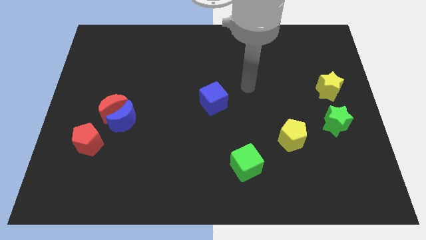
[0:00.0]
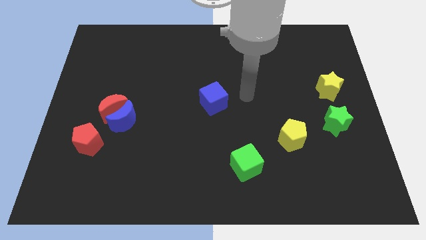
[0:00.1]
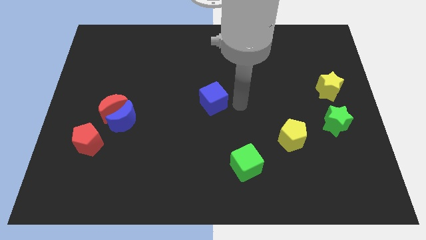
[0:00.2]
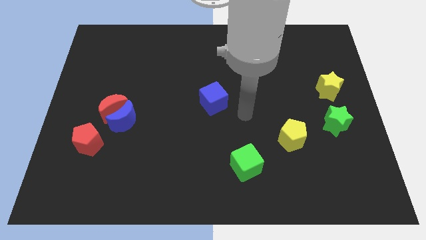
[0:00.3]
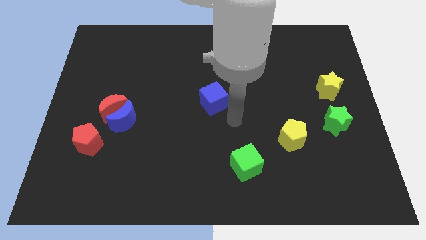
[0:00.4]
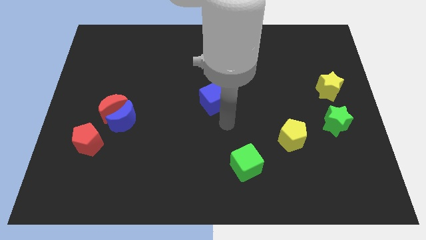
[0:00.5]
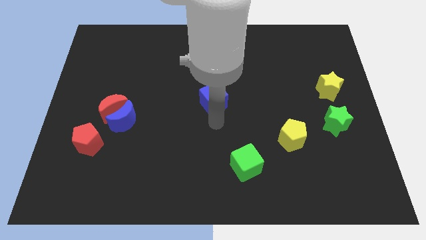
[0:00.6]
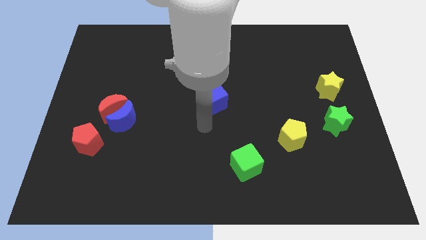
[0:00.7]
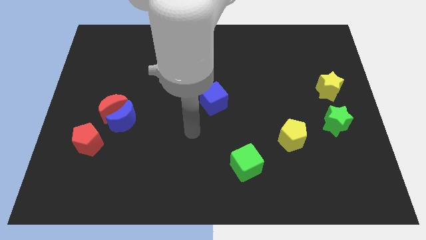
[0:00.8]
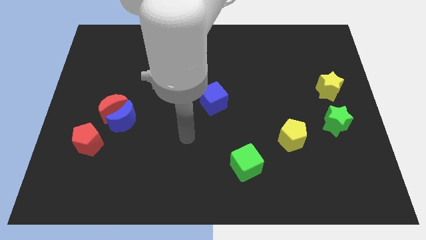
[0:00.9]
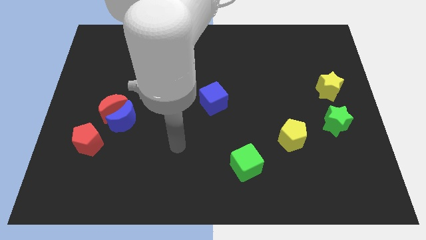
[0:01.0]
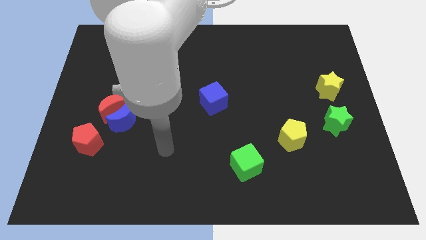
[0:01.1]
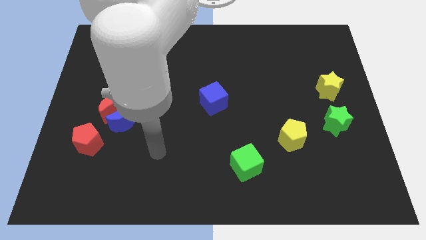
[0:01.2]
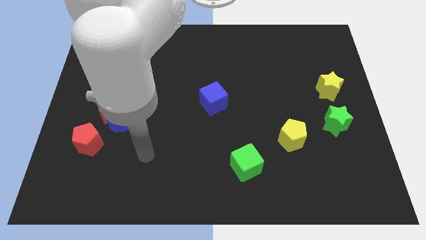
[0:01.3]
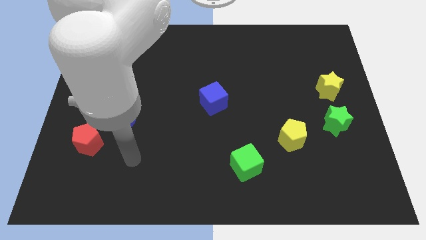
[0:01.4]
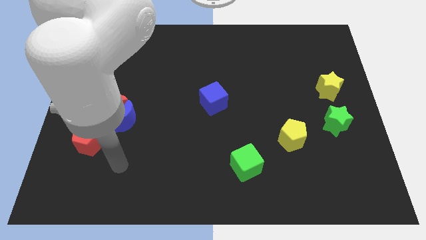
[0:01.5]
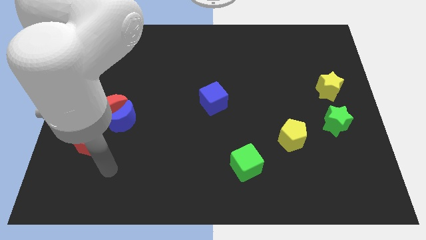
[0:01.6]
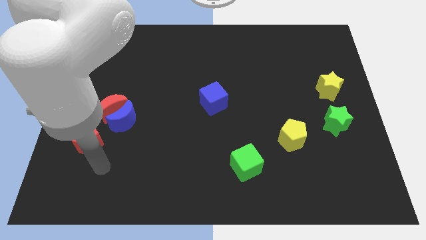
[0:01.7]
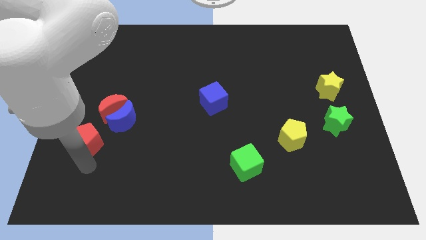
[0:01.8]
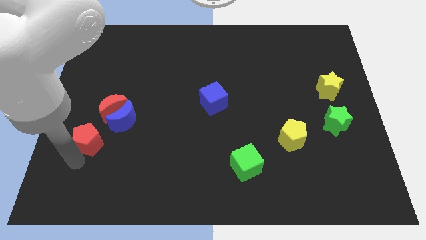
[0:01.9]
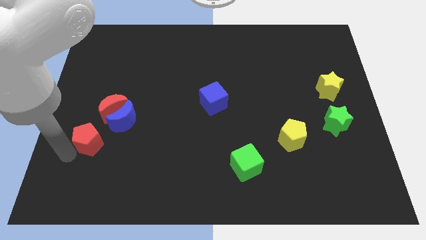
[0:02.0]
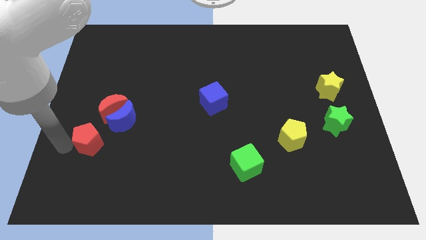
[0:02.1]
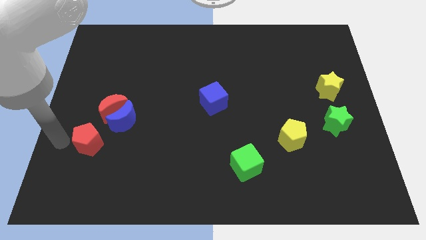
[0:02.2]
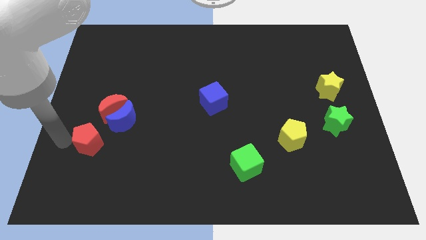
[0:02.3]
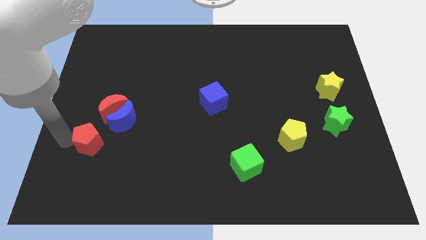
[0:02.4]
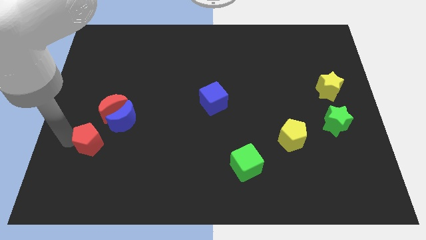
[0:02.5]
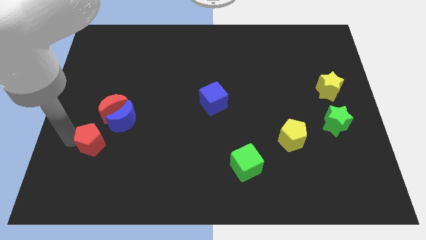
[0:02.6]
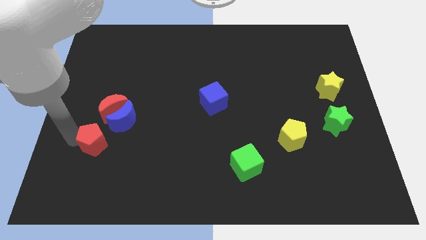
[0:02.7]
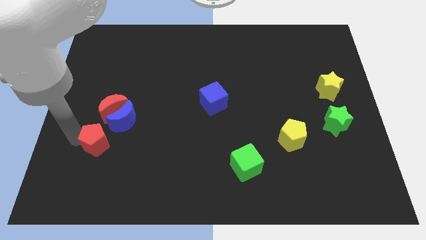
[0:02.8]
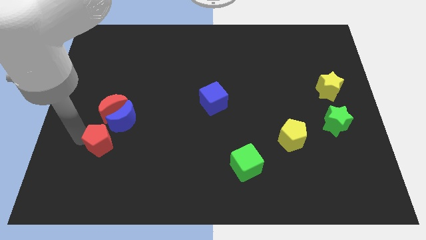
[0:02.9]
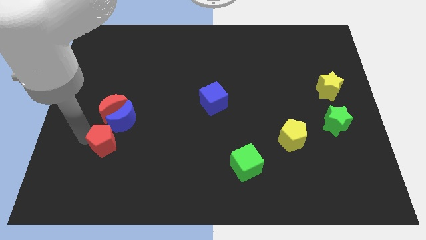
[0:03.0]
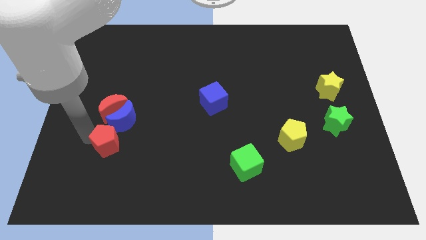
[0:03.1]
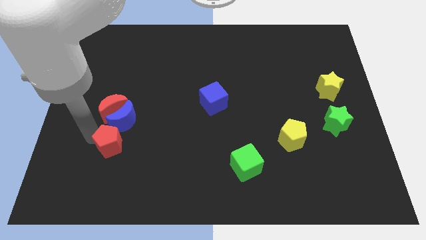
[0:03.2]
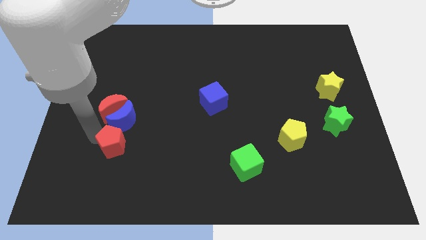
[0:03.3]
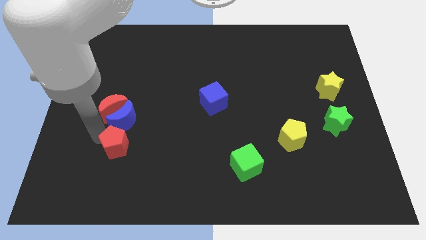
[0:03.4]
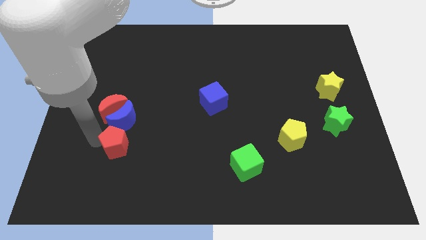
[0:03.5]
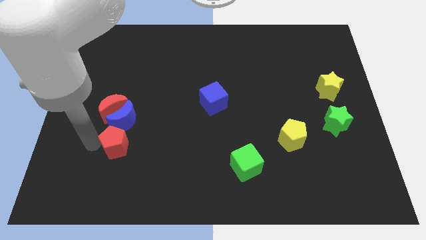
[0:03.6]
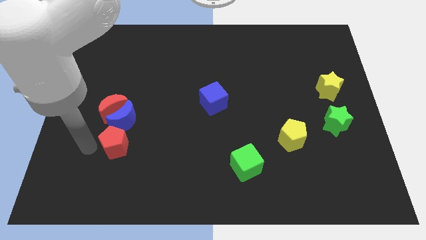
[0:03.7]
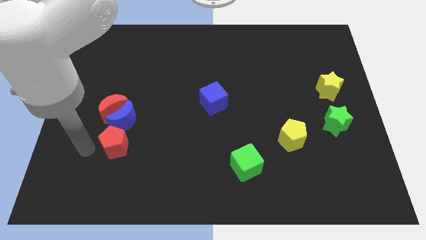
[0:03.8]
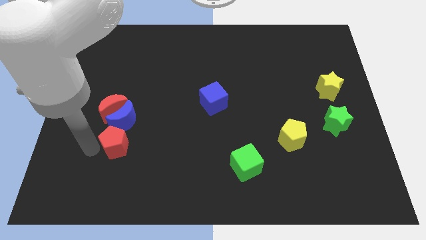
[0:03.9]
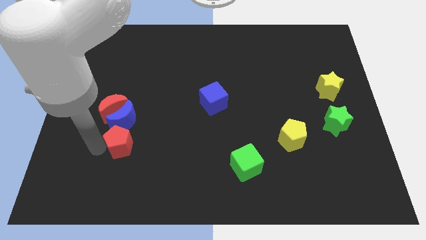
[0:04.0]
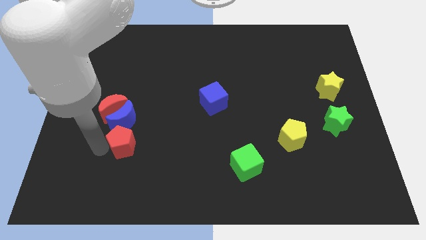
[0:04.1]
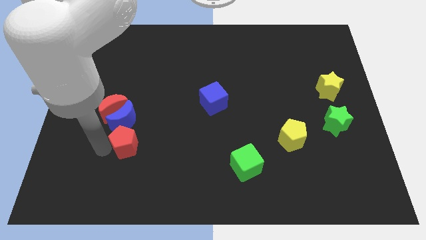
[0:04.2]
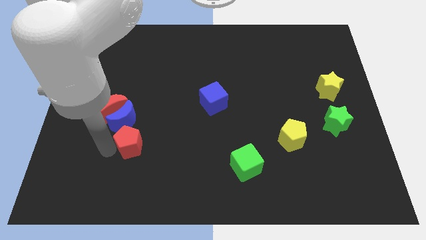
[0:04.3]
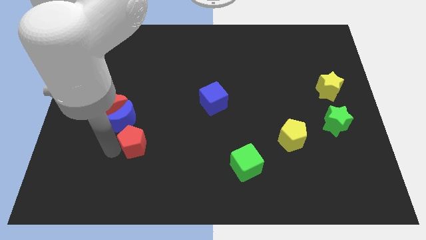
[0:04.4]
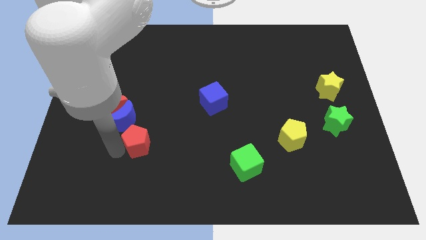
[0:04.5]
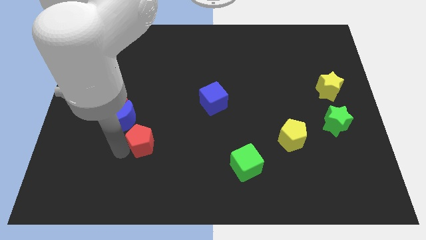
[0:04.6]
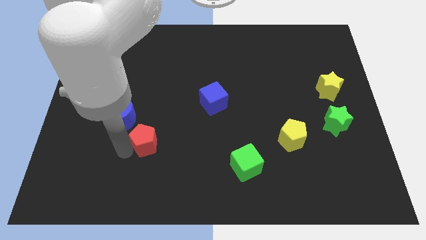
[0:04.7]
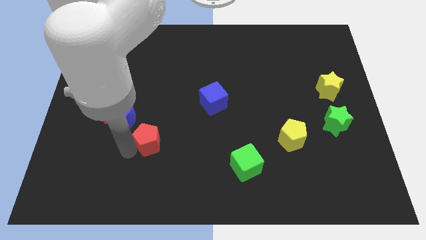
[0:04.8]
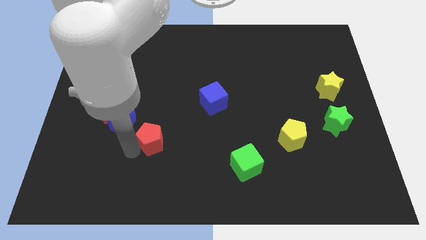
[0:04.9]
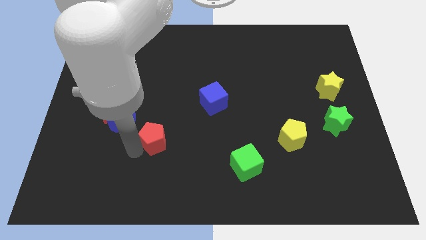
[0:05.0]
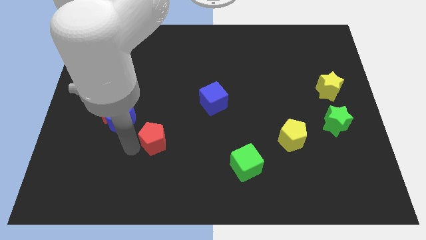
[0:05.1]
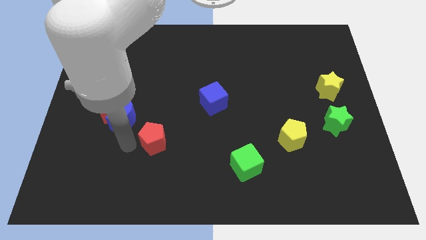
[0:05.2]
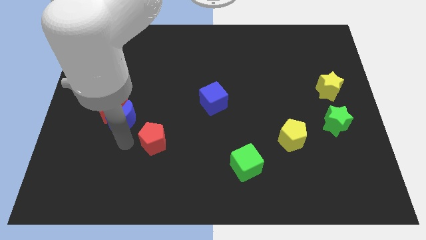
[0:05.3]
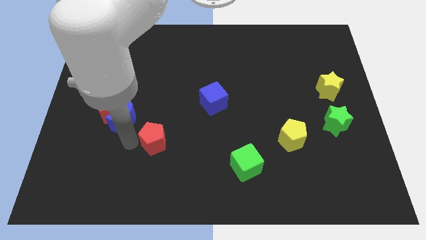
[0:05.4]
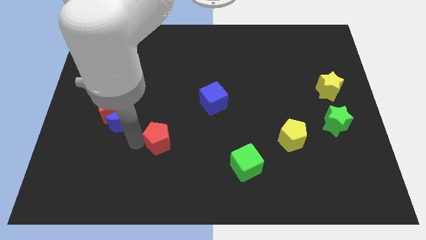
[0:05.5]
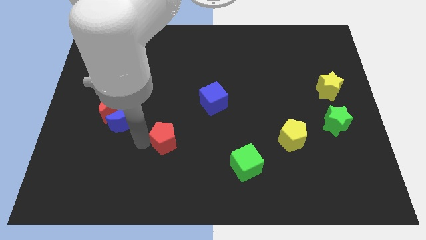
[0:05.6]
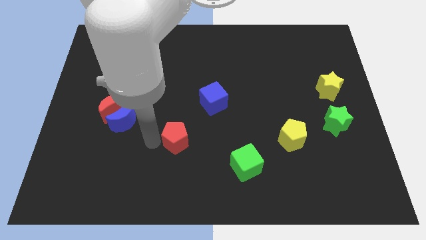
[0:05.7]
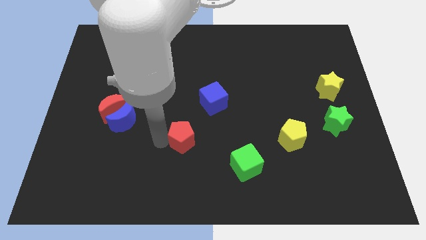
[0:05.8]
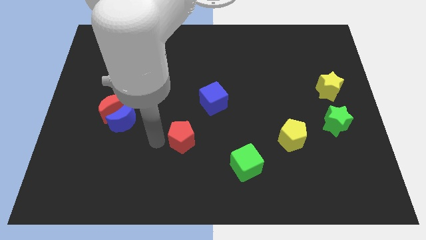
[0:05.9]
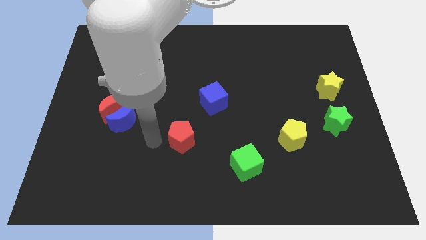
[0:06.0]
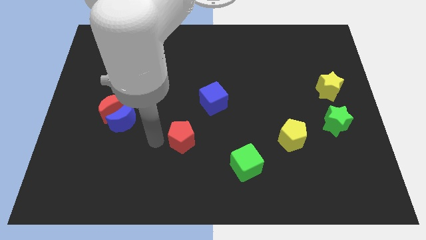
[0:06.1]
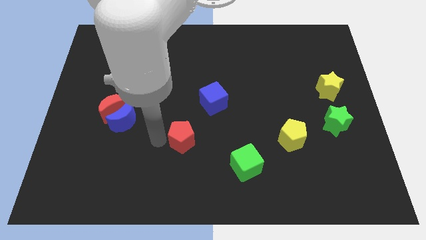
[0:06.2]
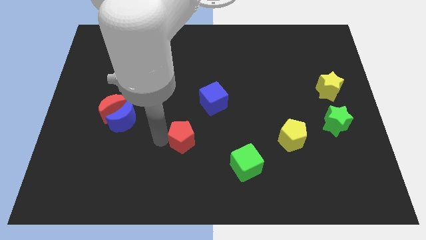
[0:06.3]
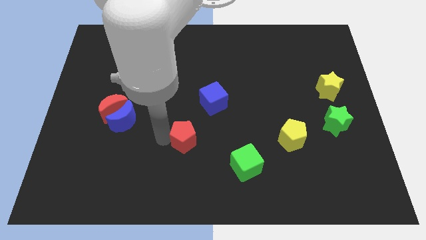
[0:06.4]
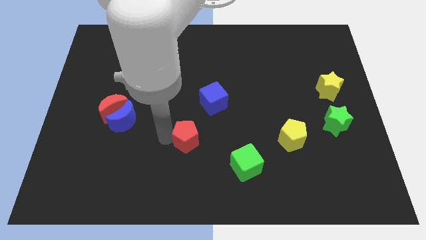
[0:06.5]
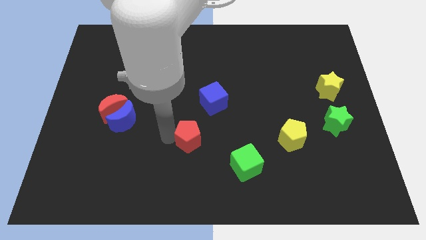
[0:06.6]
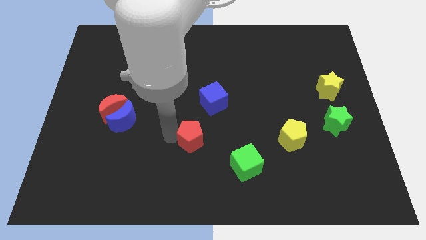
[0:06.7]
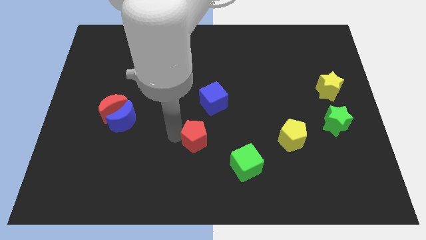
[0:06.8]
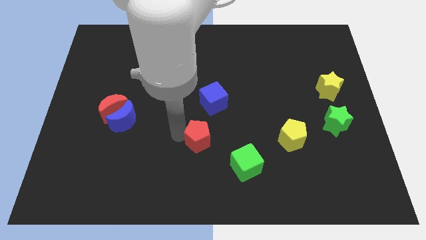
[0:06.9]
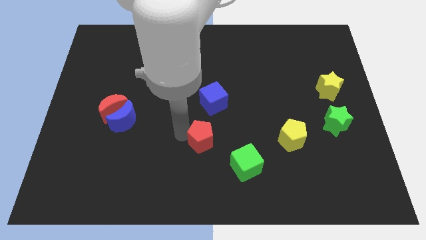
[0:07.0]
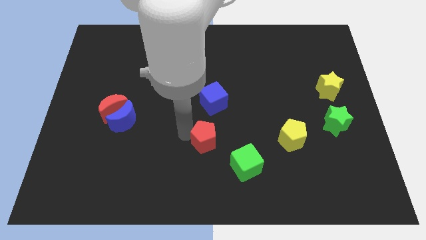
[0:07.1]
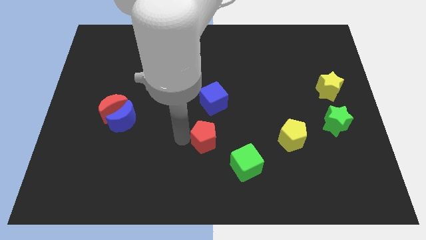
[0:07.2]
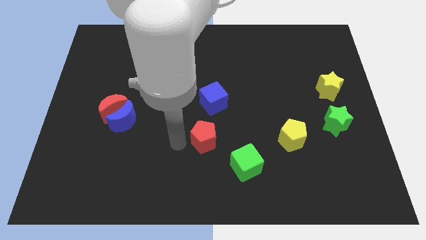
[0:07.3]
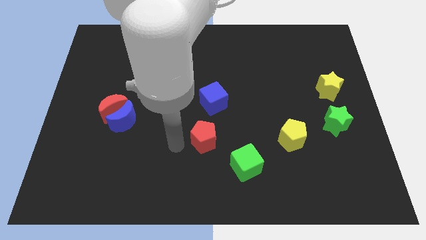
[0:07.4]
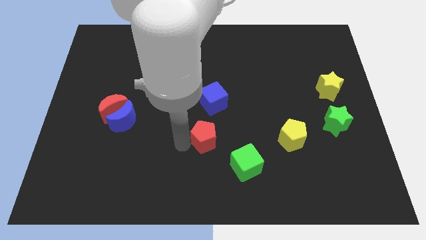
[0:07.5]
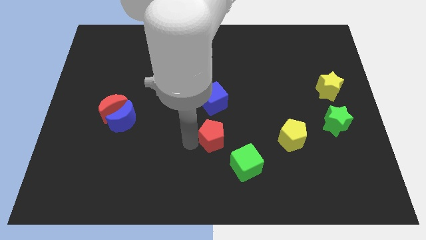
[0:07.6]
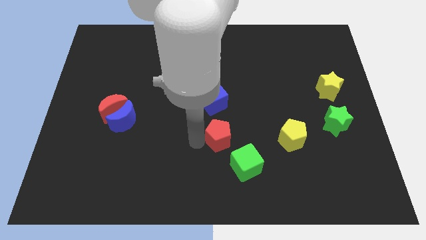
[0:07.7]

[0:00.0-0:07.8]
push the red pentagon left of the yellow pentagon
